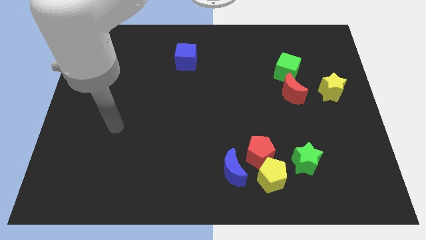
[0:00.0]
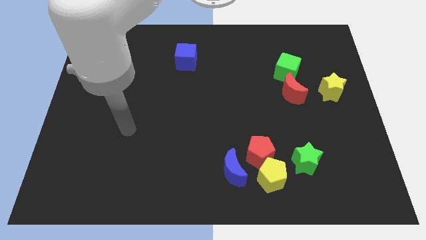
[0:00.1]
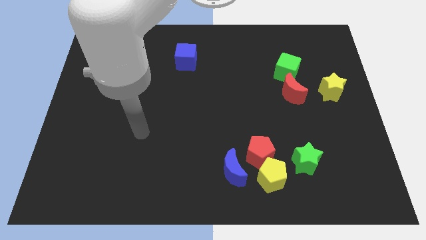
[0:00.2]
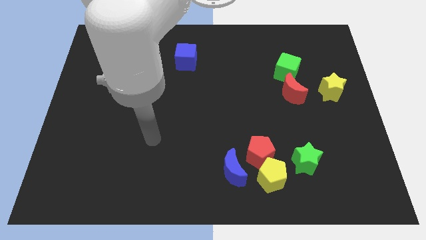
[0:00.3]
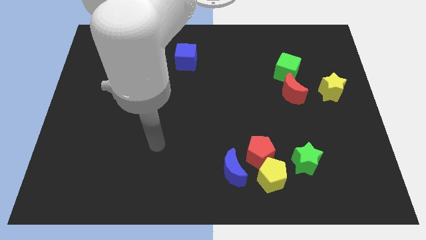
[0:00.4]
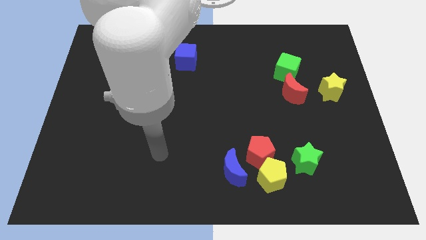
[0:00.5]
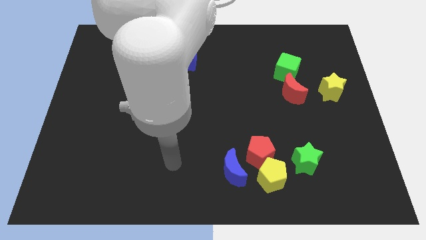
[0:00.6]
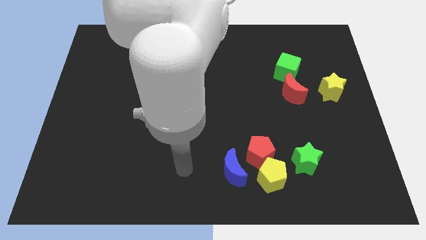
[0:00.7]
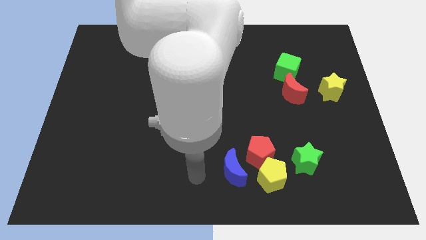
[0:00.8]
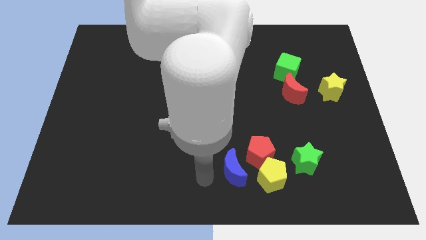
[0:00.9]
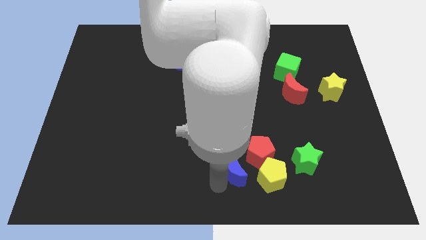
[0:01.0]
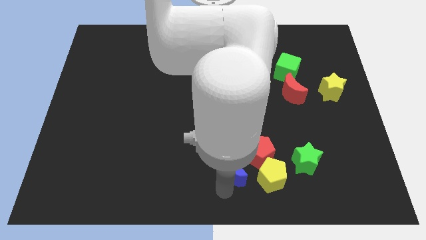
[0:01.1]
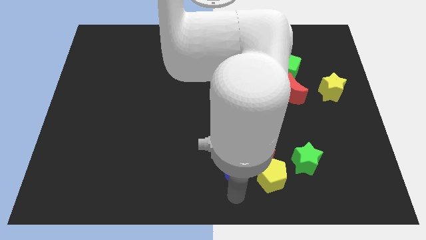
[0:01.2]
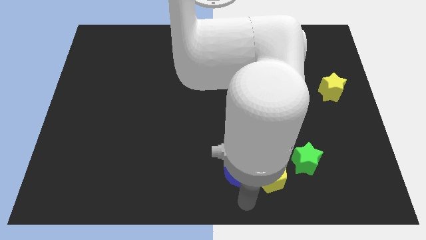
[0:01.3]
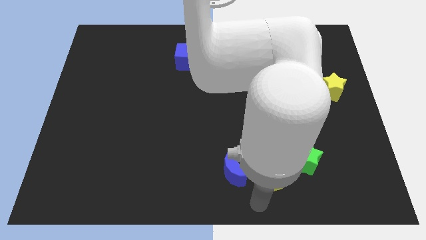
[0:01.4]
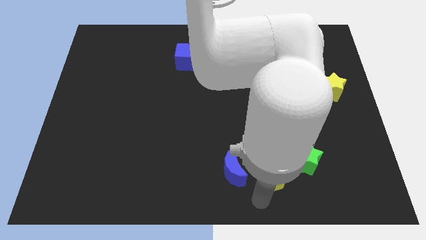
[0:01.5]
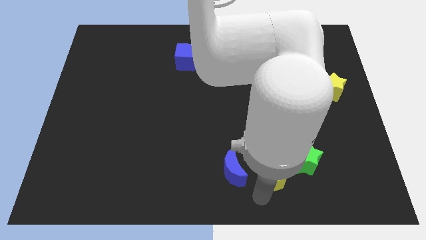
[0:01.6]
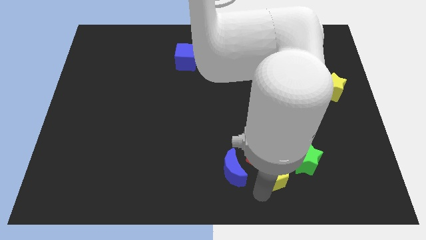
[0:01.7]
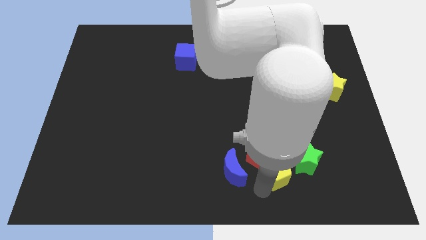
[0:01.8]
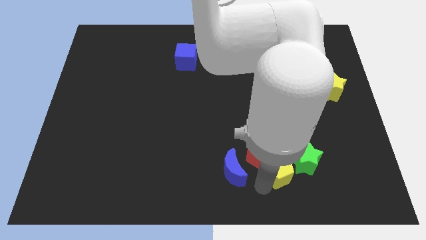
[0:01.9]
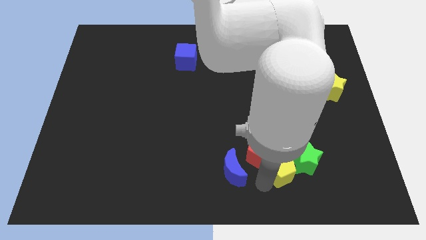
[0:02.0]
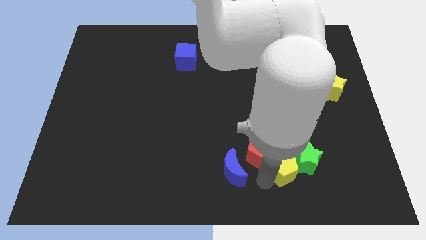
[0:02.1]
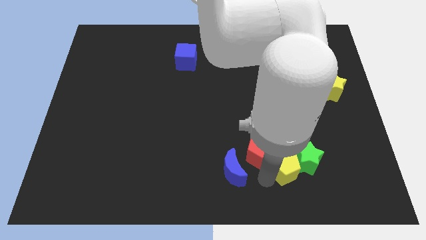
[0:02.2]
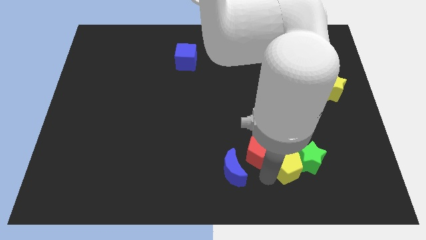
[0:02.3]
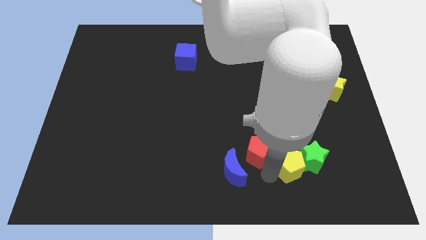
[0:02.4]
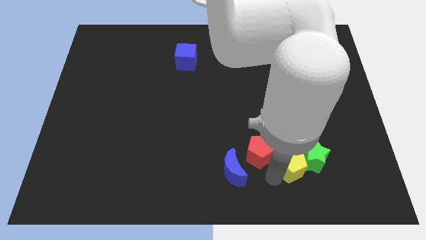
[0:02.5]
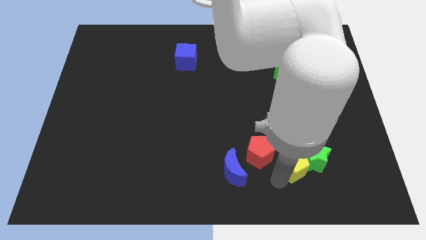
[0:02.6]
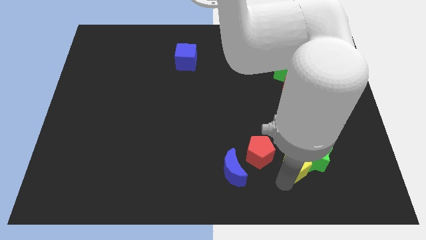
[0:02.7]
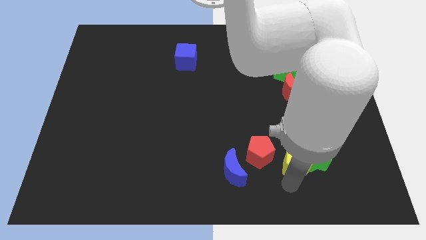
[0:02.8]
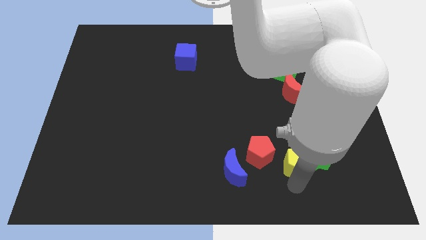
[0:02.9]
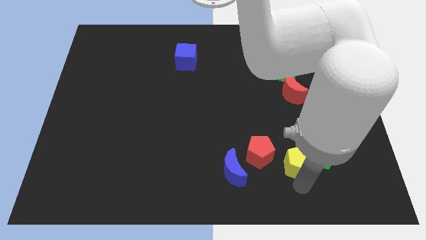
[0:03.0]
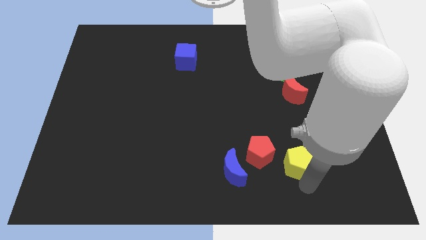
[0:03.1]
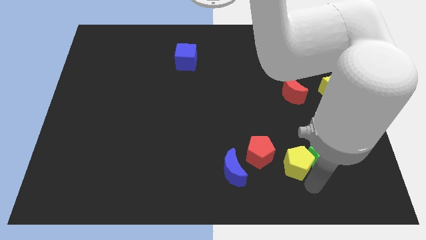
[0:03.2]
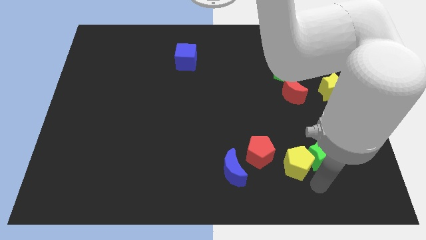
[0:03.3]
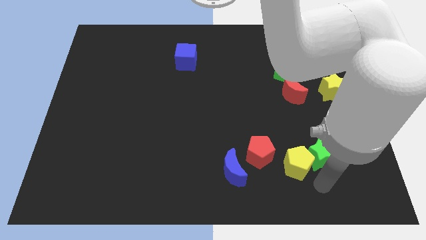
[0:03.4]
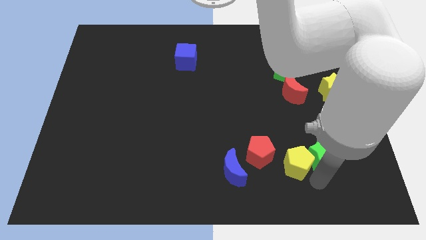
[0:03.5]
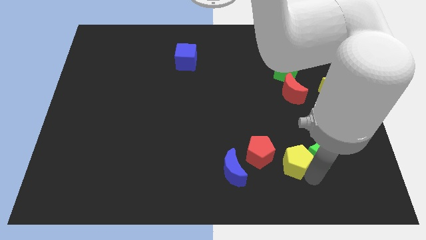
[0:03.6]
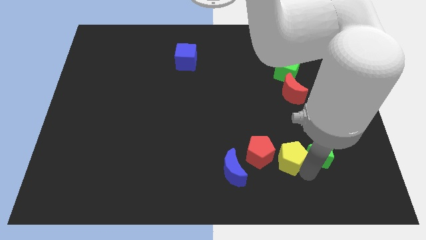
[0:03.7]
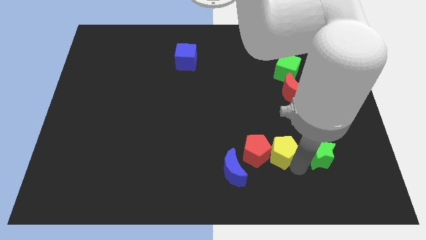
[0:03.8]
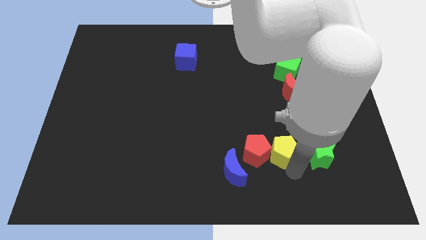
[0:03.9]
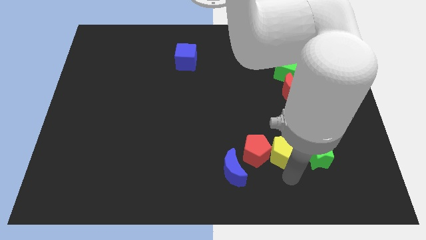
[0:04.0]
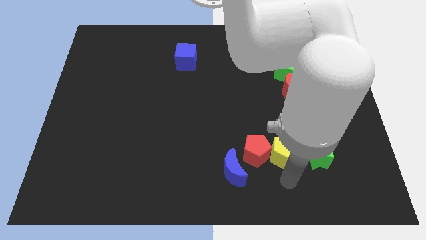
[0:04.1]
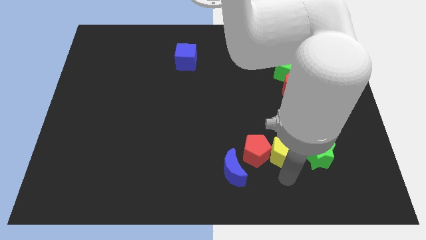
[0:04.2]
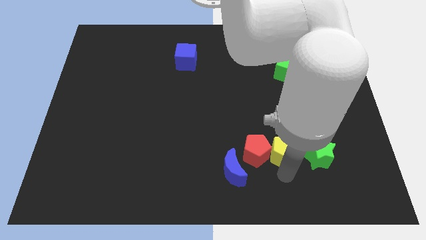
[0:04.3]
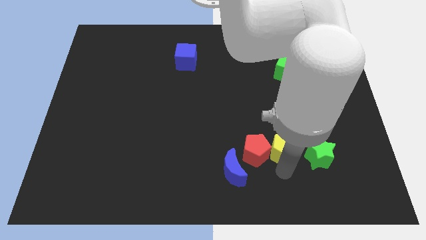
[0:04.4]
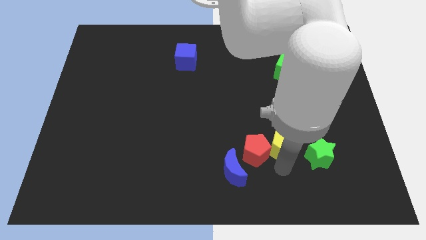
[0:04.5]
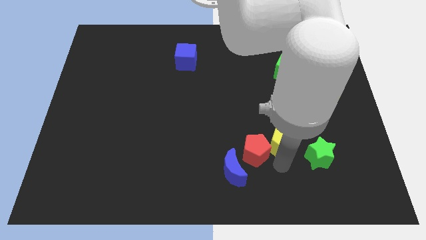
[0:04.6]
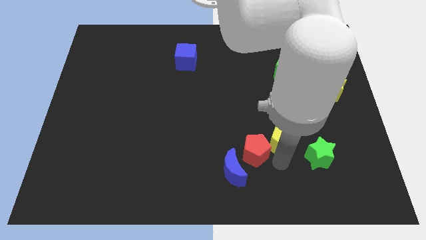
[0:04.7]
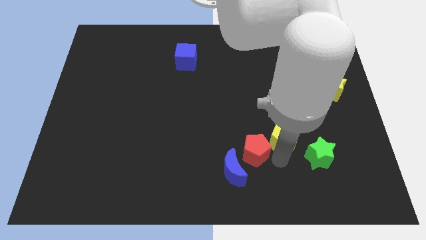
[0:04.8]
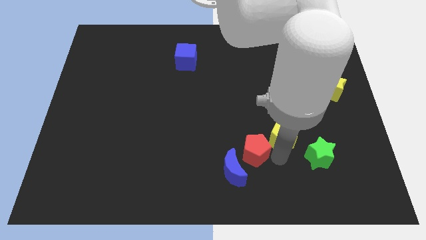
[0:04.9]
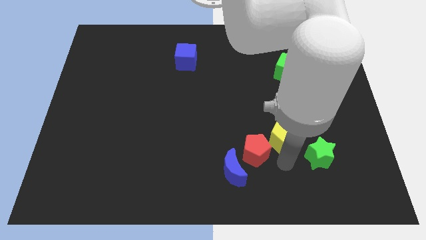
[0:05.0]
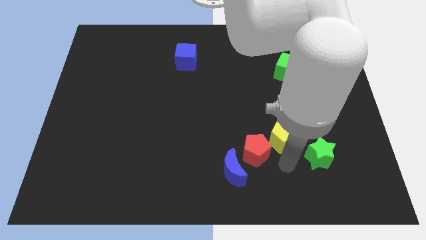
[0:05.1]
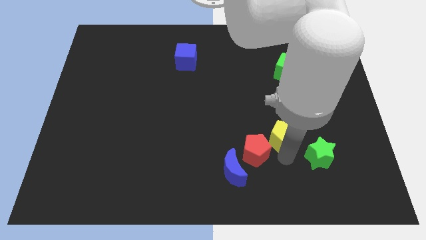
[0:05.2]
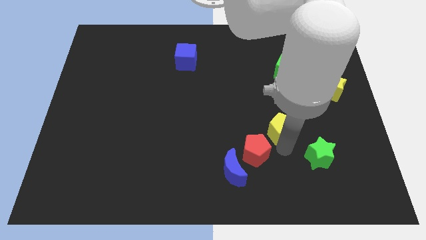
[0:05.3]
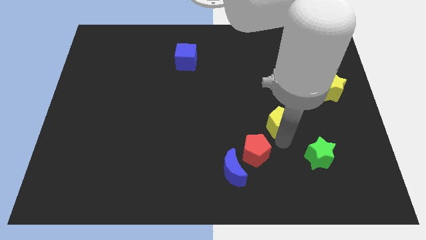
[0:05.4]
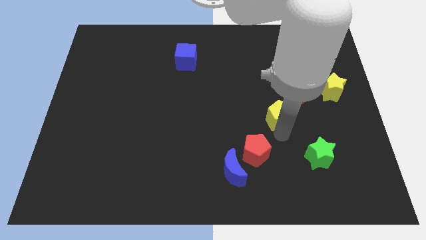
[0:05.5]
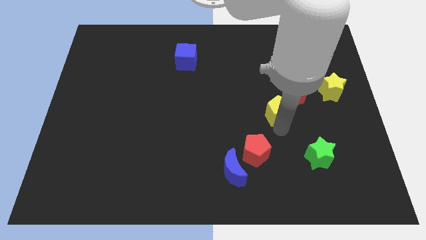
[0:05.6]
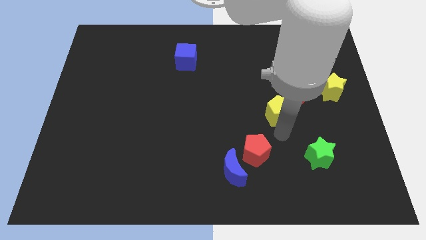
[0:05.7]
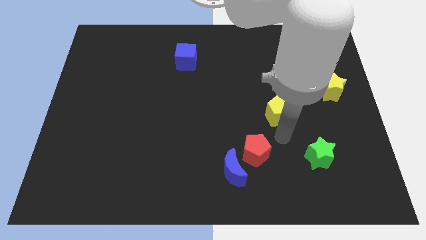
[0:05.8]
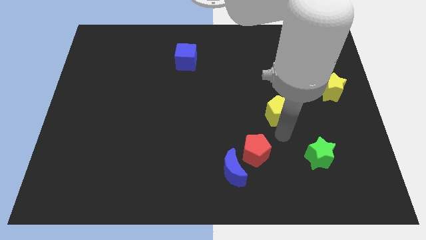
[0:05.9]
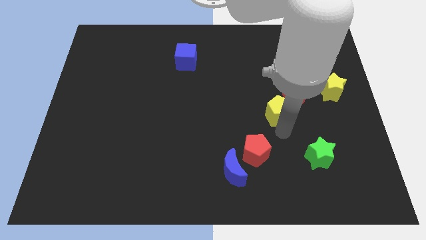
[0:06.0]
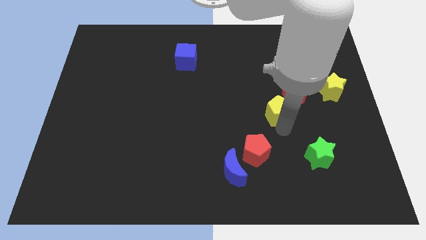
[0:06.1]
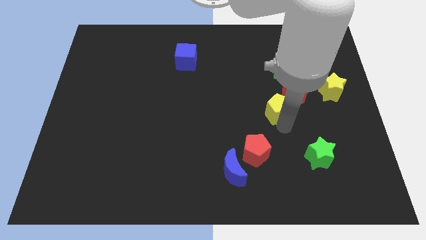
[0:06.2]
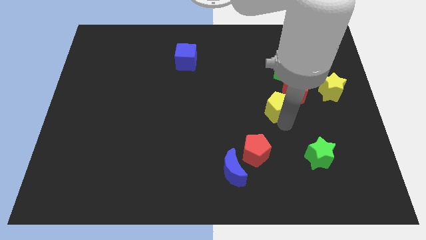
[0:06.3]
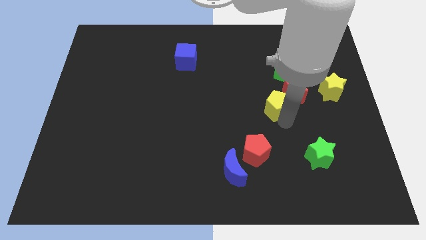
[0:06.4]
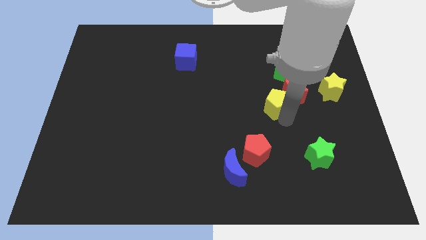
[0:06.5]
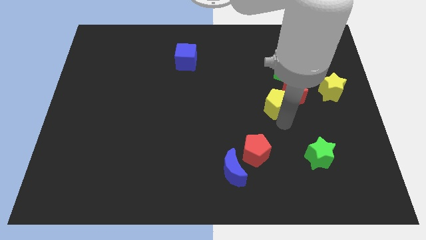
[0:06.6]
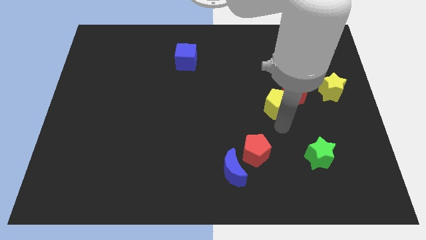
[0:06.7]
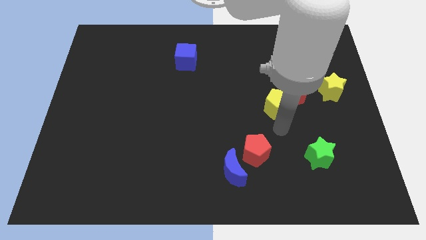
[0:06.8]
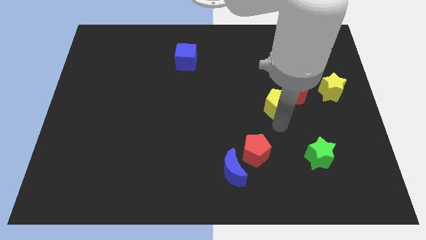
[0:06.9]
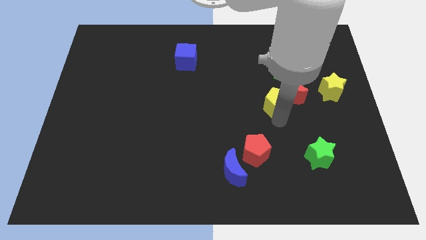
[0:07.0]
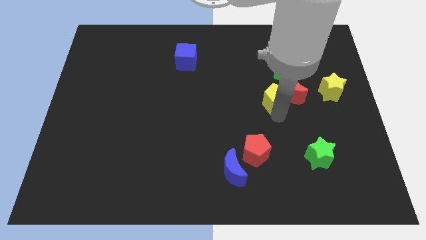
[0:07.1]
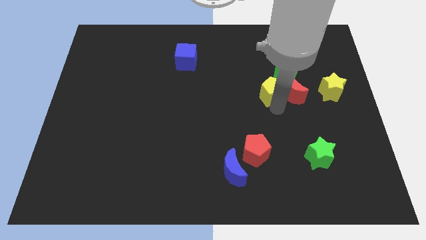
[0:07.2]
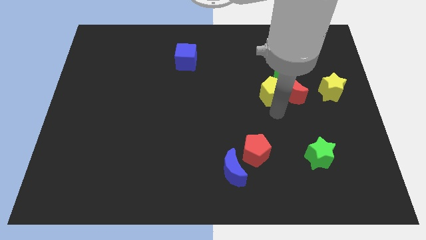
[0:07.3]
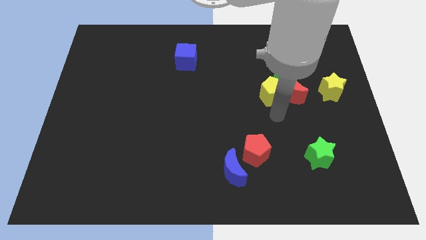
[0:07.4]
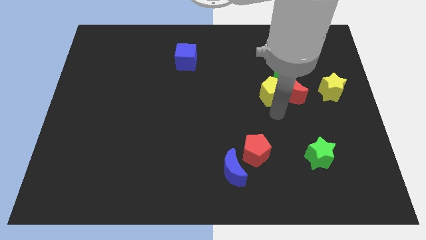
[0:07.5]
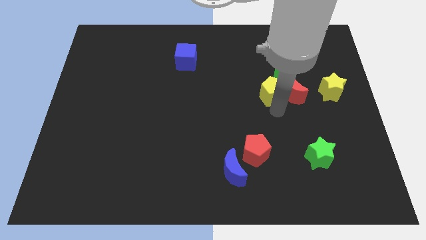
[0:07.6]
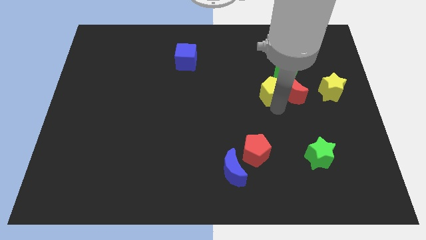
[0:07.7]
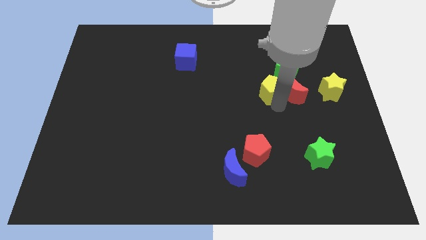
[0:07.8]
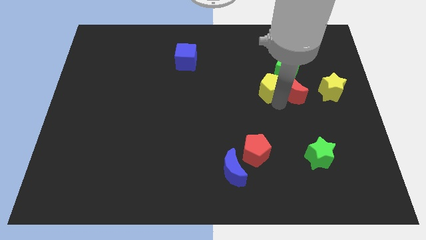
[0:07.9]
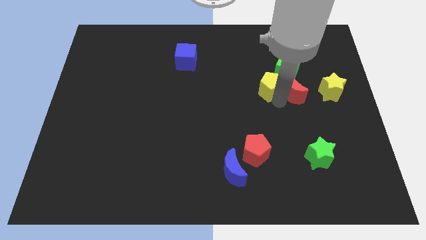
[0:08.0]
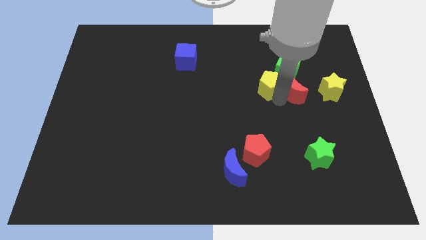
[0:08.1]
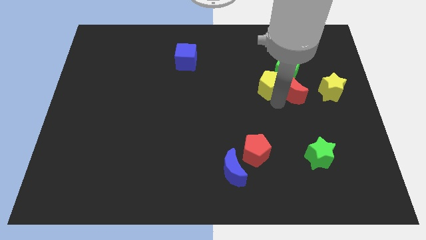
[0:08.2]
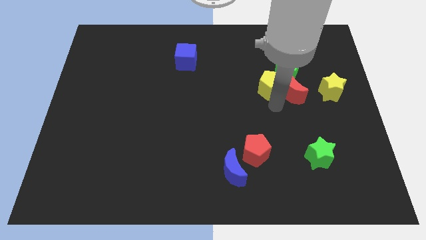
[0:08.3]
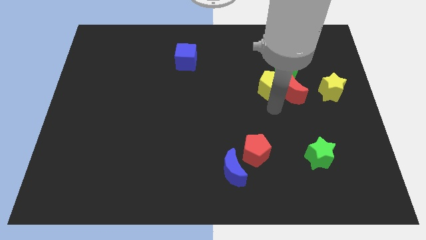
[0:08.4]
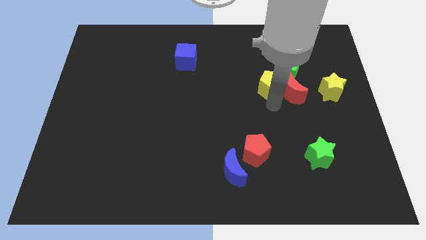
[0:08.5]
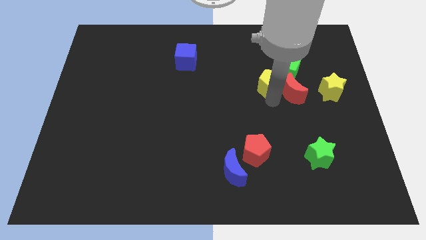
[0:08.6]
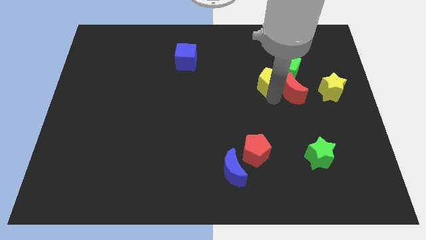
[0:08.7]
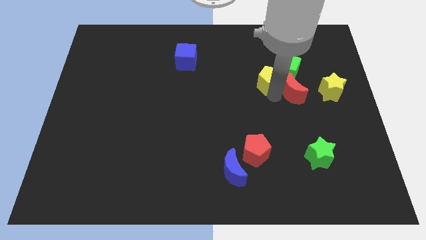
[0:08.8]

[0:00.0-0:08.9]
push the yellow pentagon towards the green cube
